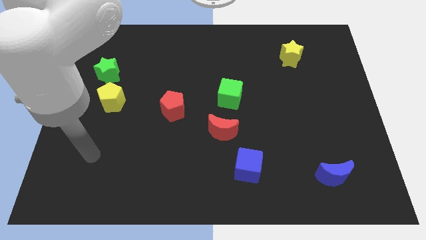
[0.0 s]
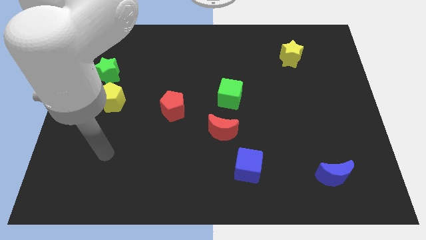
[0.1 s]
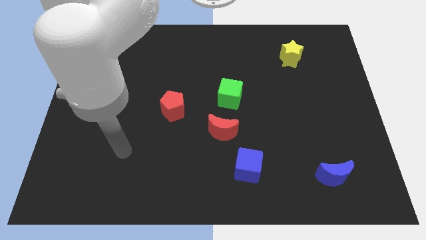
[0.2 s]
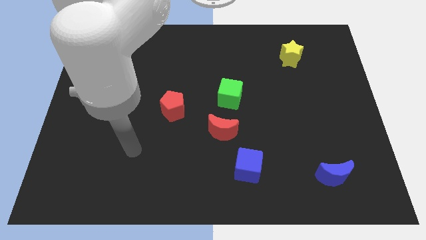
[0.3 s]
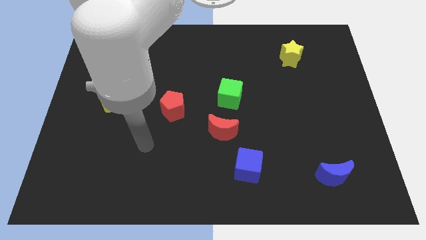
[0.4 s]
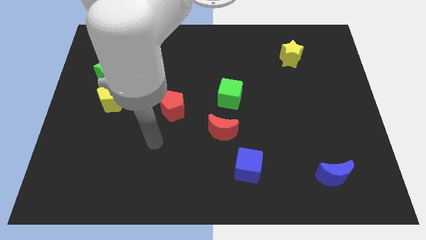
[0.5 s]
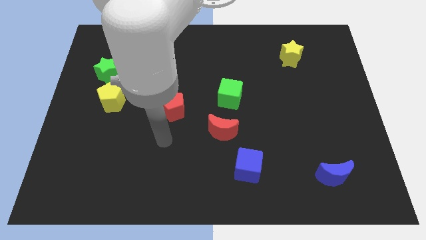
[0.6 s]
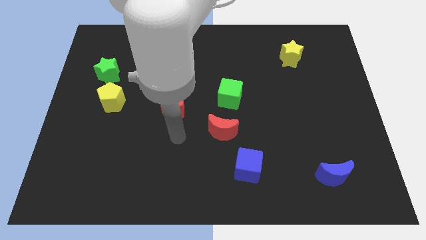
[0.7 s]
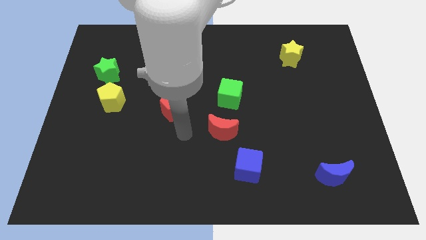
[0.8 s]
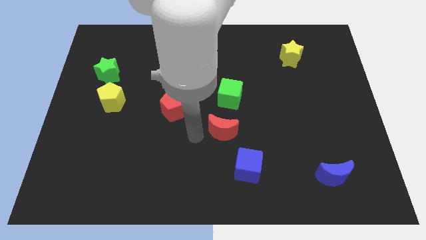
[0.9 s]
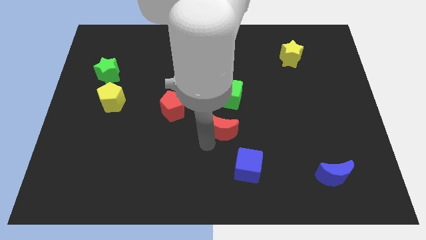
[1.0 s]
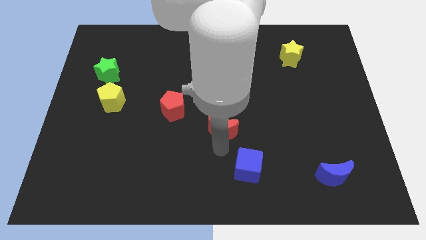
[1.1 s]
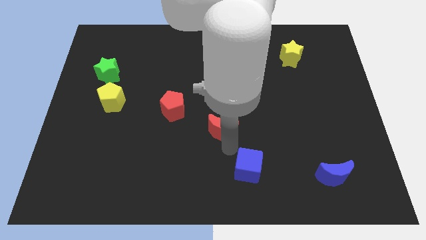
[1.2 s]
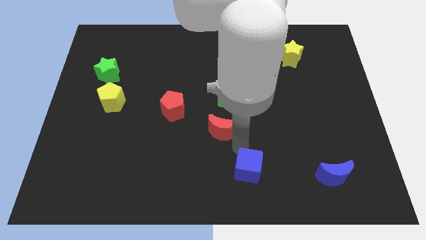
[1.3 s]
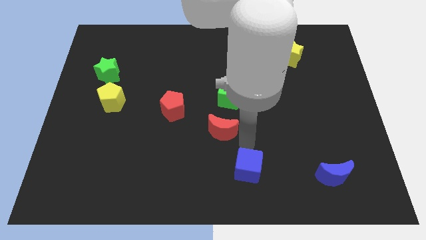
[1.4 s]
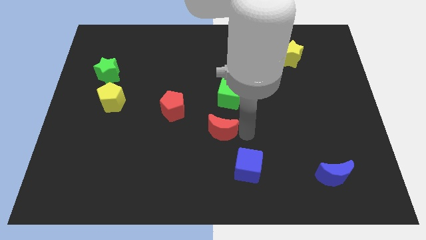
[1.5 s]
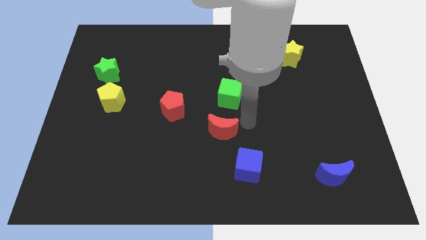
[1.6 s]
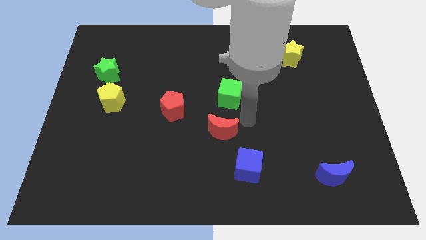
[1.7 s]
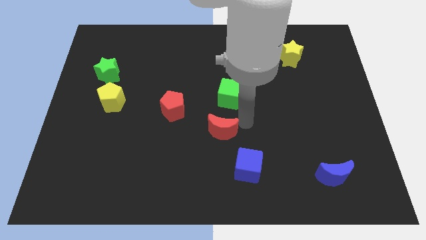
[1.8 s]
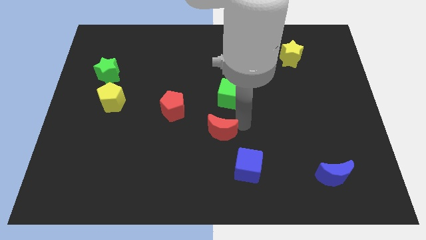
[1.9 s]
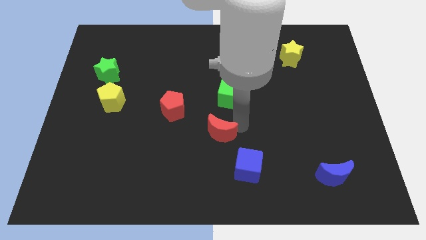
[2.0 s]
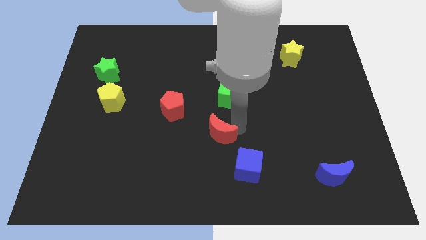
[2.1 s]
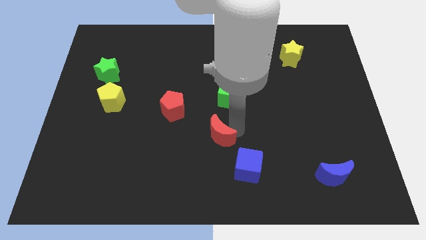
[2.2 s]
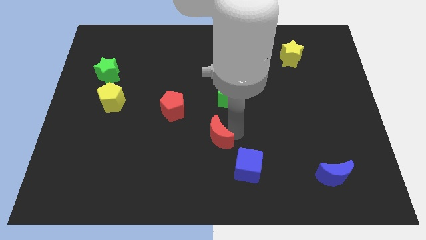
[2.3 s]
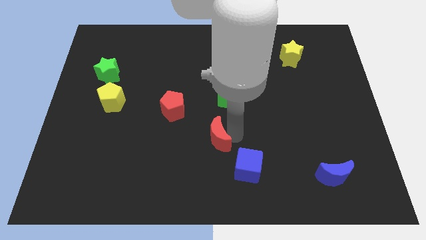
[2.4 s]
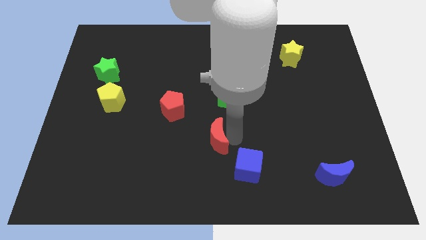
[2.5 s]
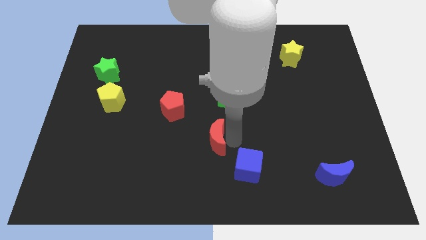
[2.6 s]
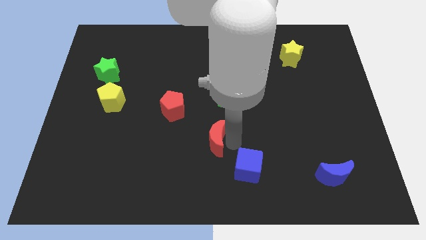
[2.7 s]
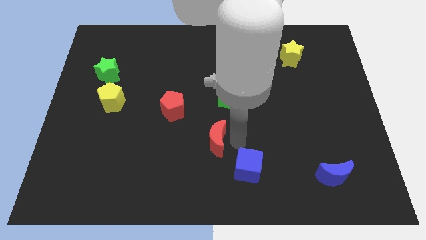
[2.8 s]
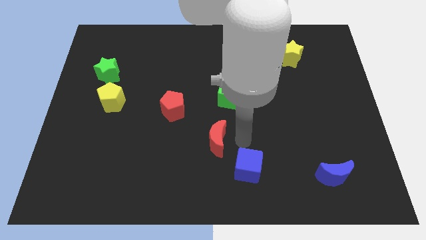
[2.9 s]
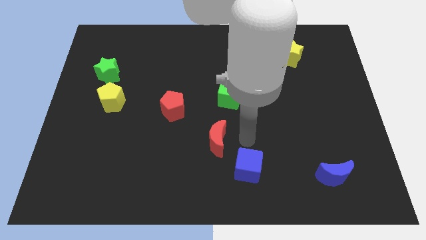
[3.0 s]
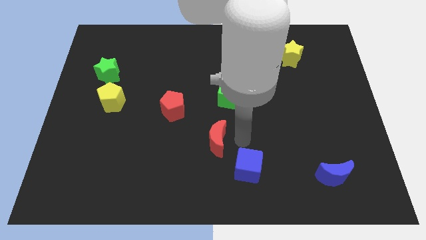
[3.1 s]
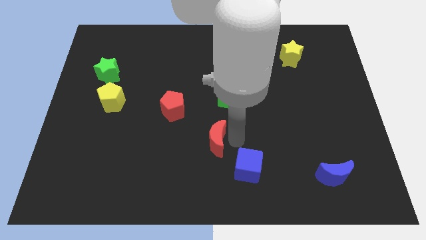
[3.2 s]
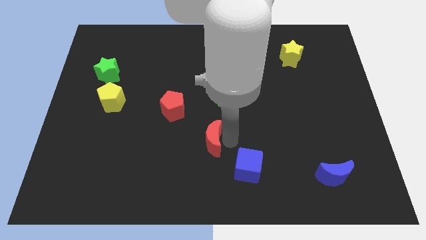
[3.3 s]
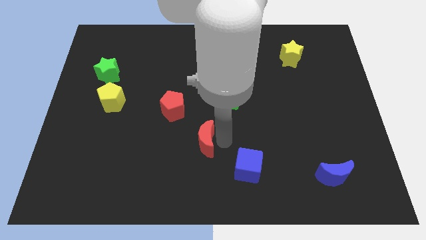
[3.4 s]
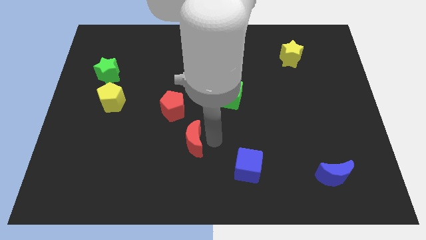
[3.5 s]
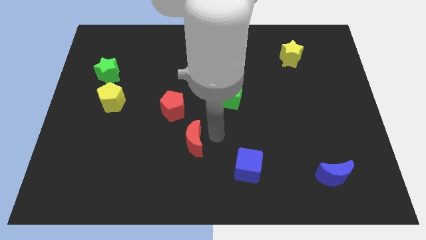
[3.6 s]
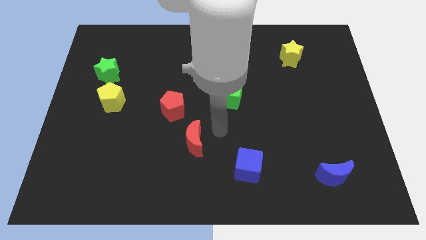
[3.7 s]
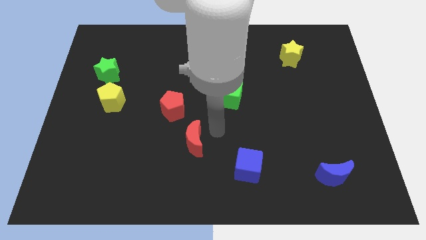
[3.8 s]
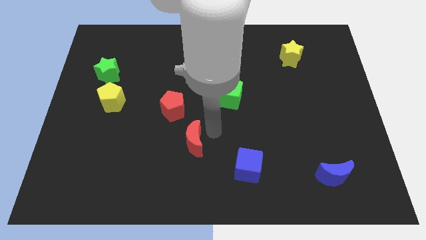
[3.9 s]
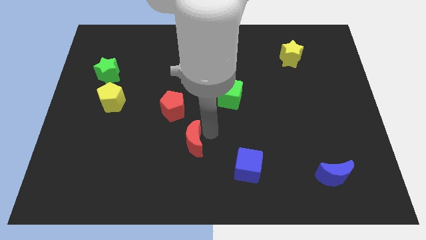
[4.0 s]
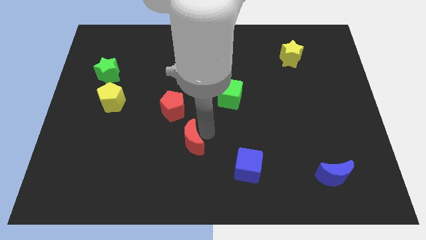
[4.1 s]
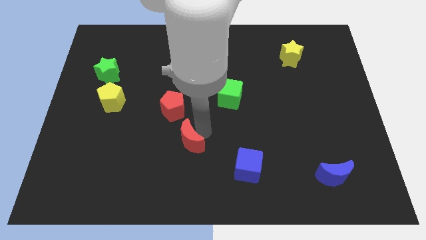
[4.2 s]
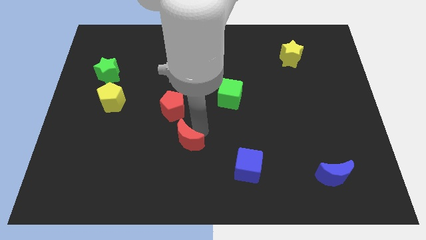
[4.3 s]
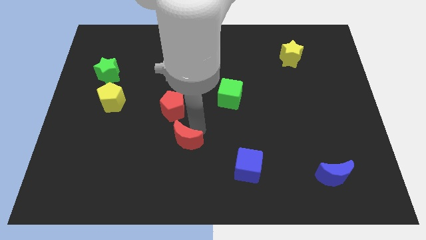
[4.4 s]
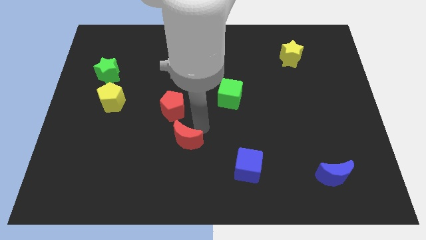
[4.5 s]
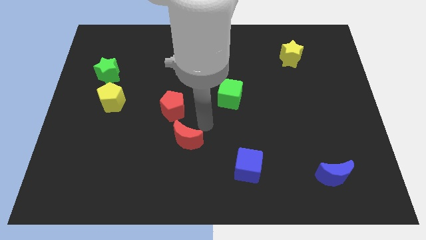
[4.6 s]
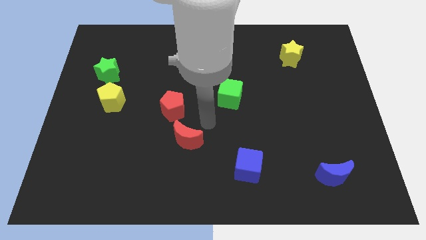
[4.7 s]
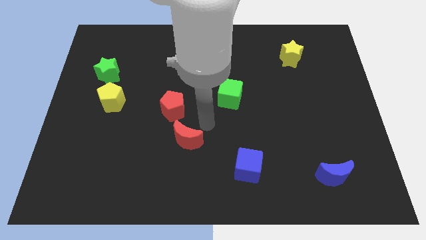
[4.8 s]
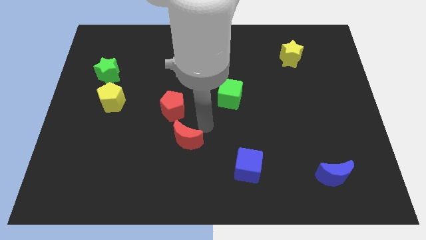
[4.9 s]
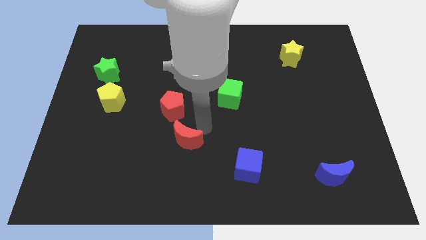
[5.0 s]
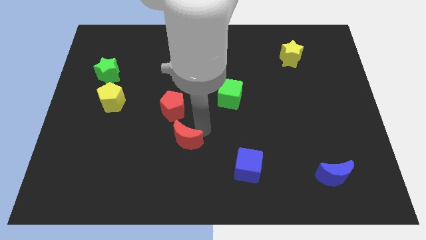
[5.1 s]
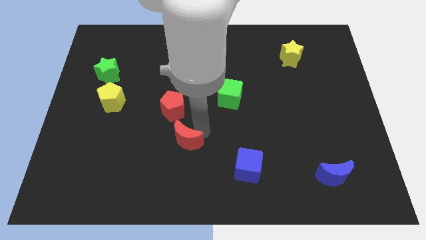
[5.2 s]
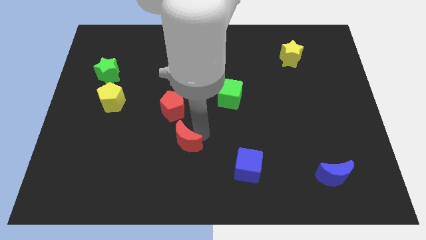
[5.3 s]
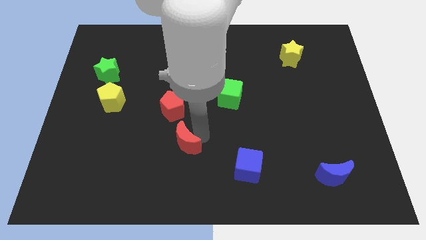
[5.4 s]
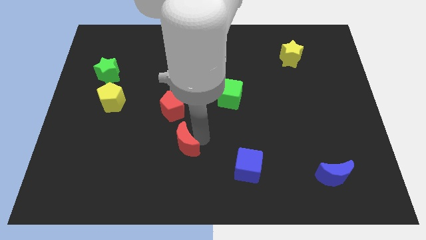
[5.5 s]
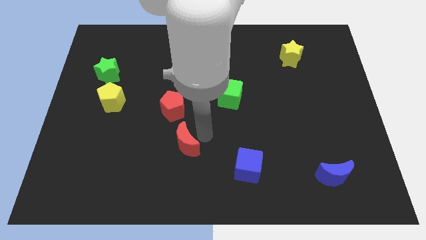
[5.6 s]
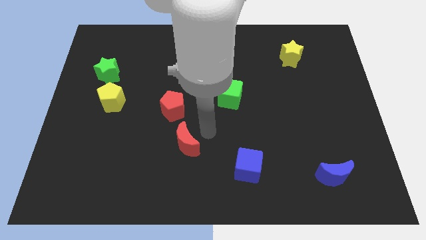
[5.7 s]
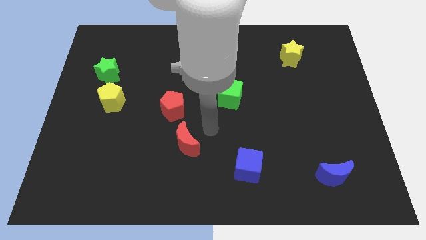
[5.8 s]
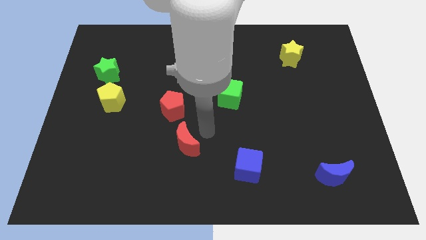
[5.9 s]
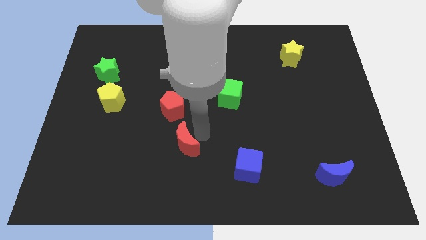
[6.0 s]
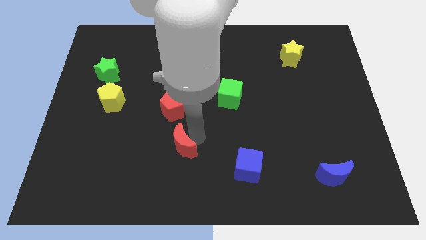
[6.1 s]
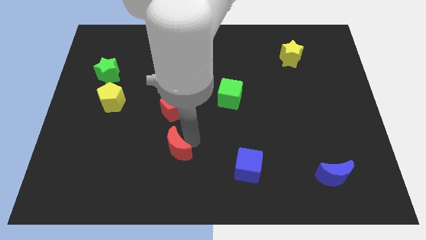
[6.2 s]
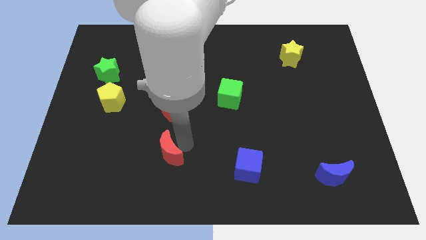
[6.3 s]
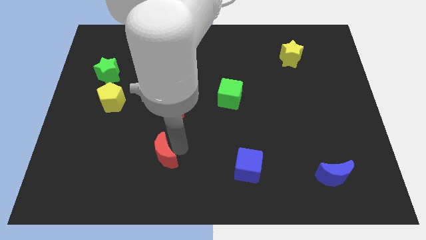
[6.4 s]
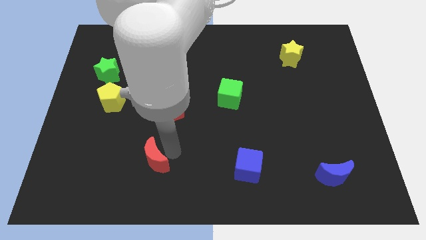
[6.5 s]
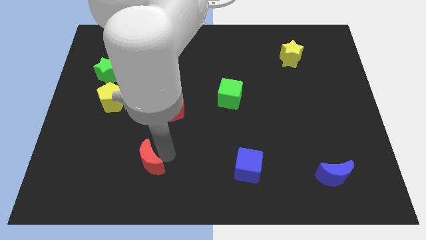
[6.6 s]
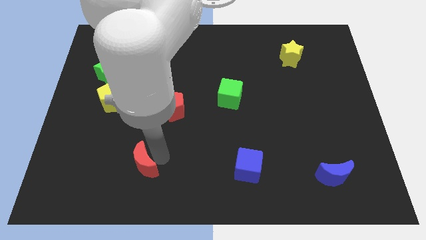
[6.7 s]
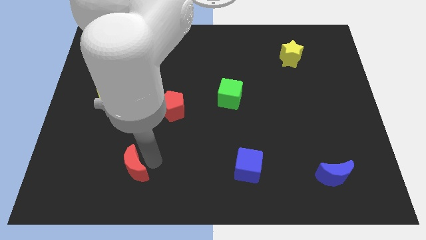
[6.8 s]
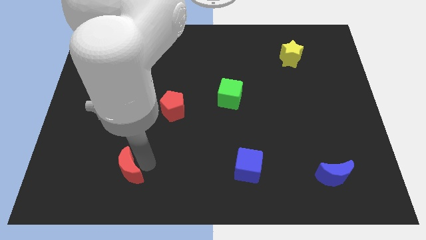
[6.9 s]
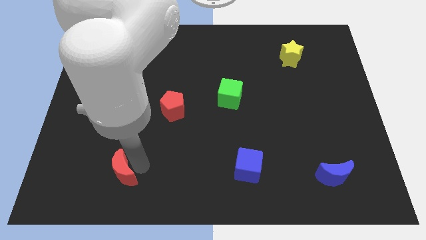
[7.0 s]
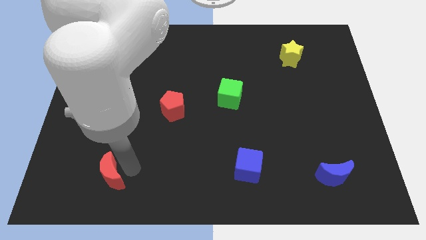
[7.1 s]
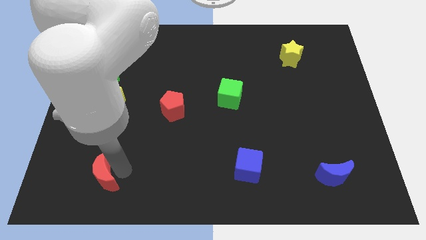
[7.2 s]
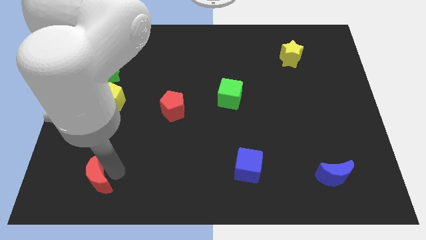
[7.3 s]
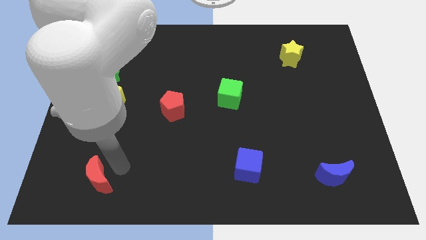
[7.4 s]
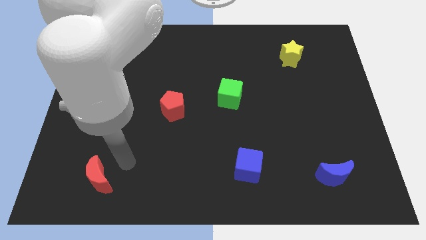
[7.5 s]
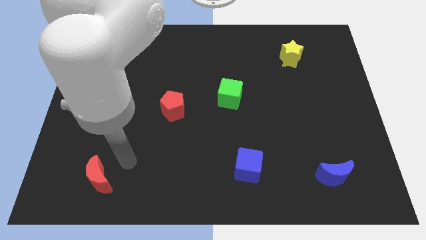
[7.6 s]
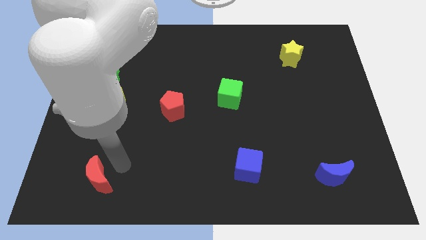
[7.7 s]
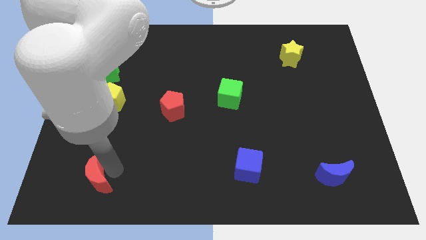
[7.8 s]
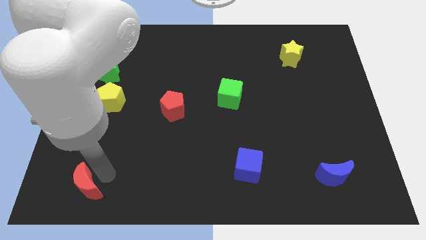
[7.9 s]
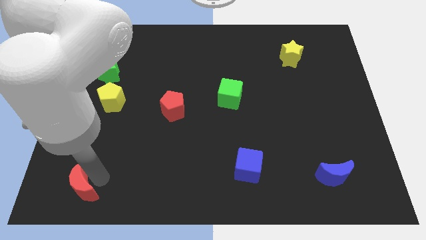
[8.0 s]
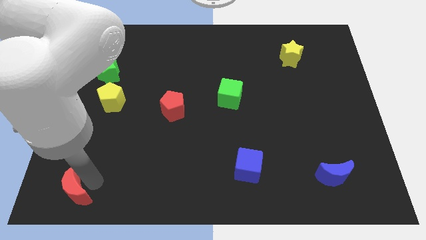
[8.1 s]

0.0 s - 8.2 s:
put the red moon to the bottom left
